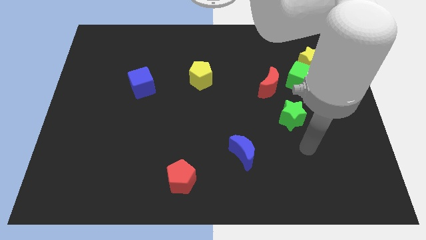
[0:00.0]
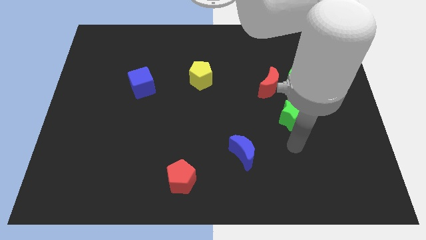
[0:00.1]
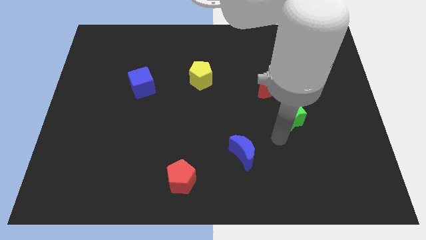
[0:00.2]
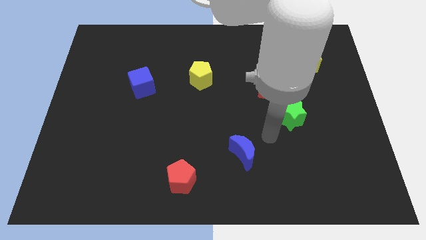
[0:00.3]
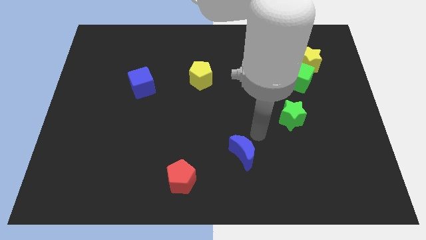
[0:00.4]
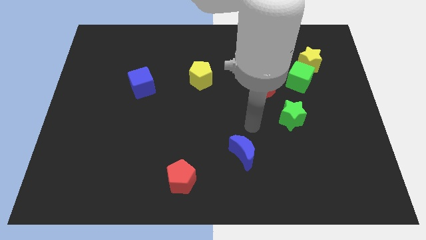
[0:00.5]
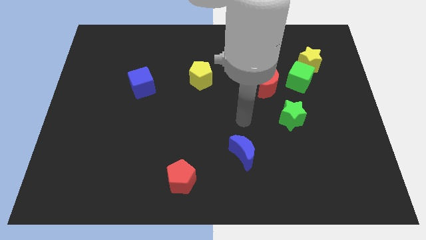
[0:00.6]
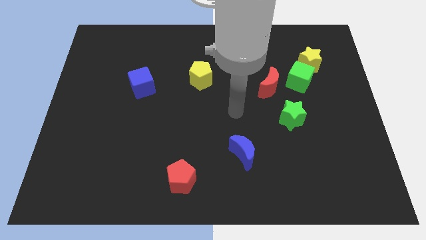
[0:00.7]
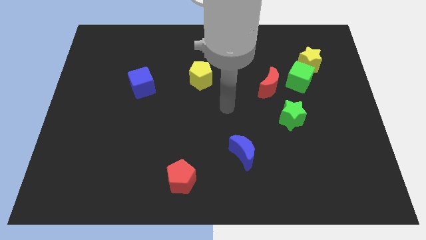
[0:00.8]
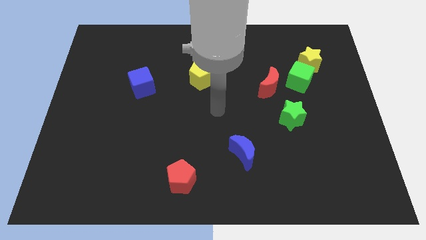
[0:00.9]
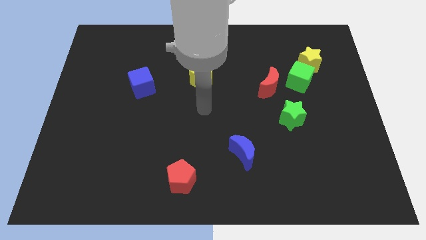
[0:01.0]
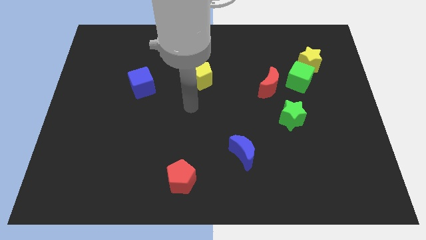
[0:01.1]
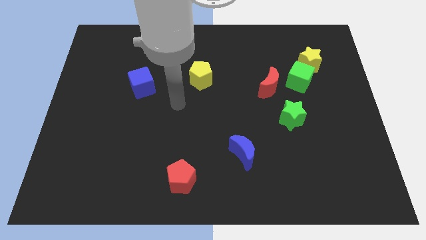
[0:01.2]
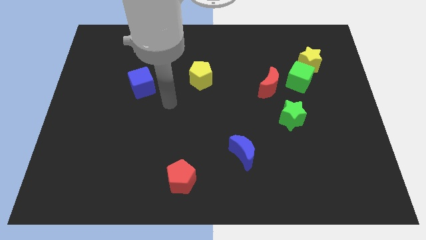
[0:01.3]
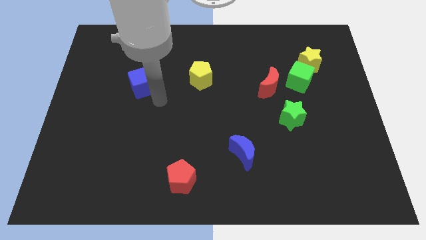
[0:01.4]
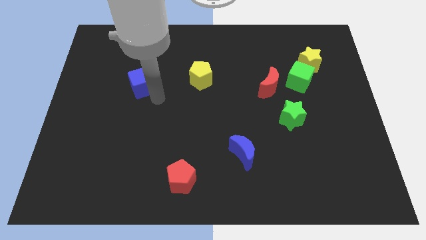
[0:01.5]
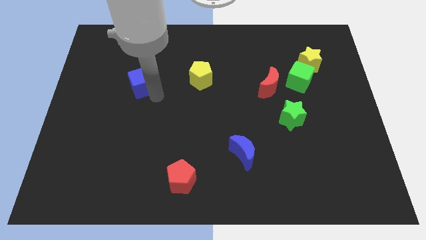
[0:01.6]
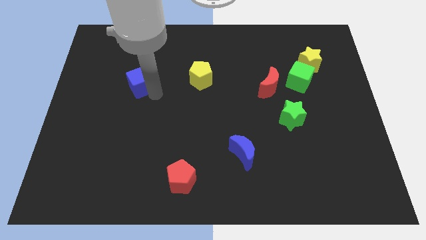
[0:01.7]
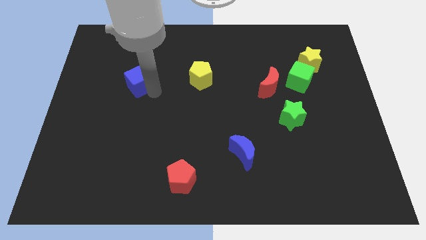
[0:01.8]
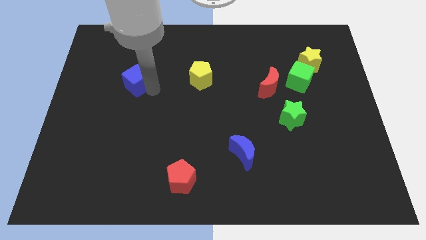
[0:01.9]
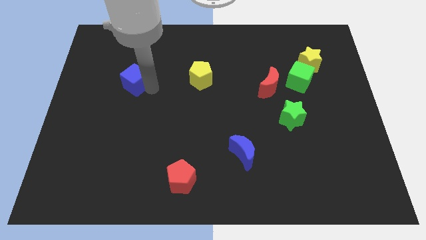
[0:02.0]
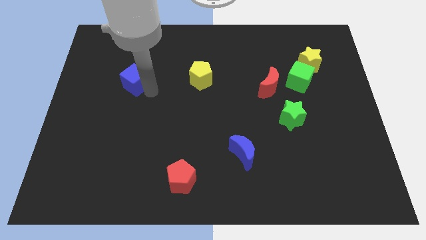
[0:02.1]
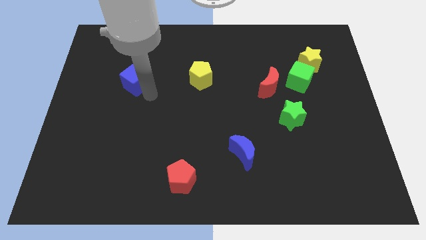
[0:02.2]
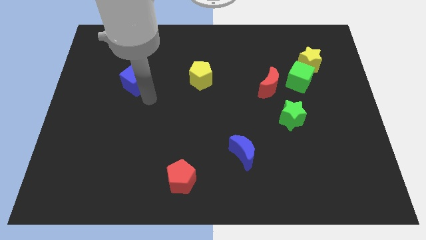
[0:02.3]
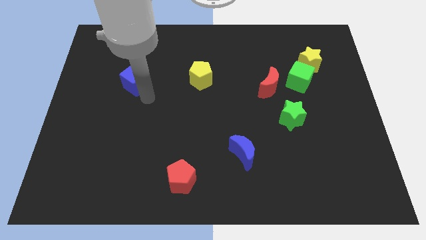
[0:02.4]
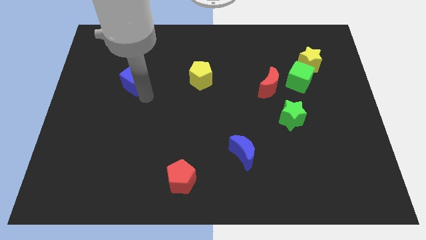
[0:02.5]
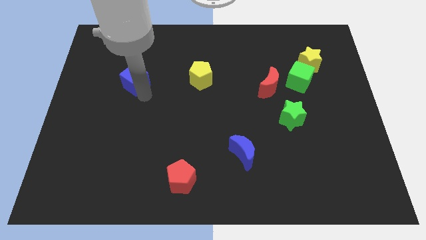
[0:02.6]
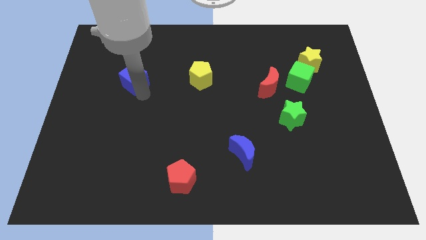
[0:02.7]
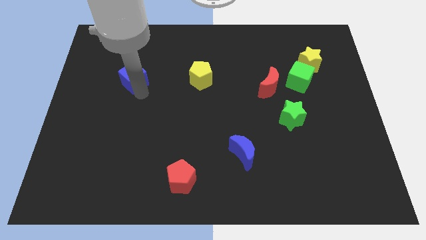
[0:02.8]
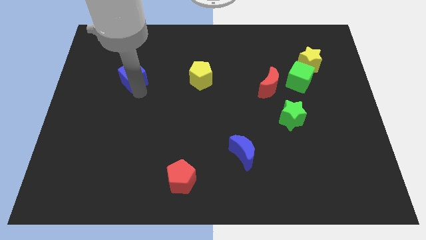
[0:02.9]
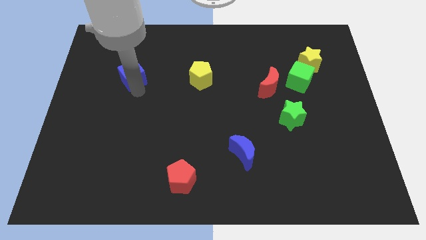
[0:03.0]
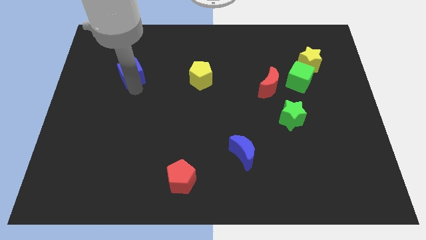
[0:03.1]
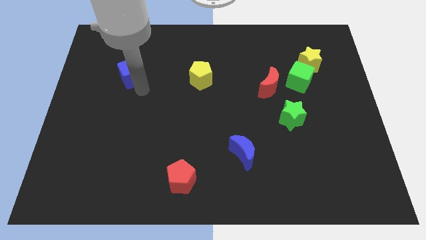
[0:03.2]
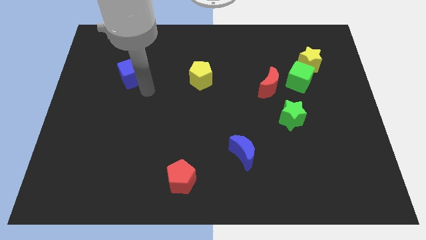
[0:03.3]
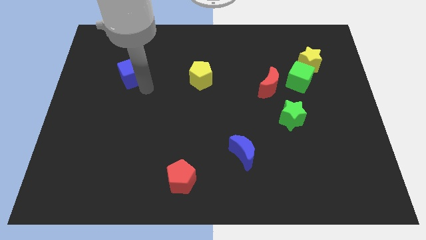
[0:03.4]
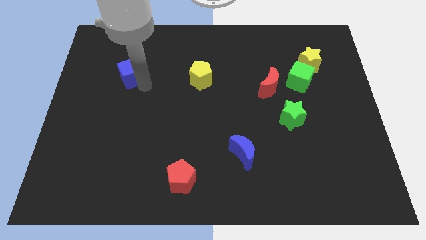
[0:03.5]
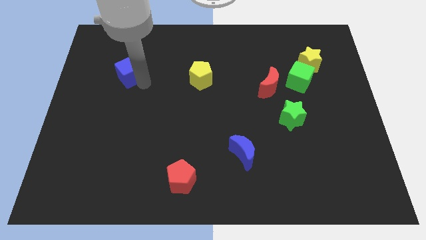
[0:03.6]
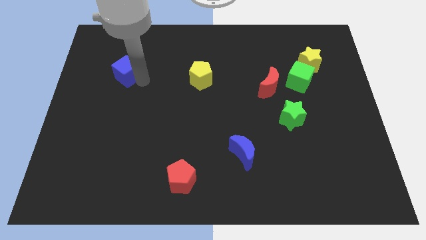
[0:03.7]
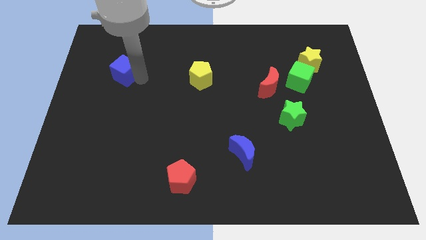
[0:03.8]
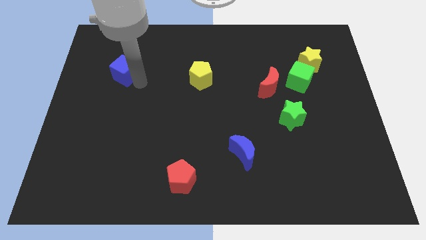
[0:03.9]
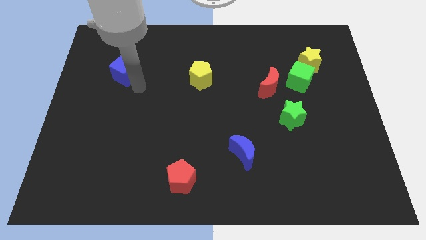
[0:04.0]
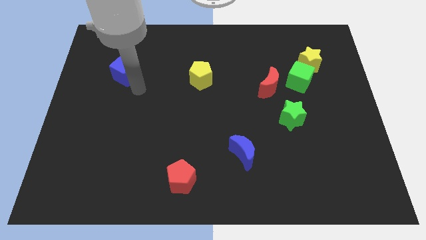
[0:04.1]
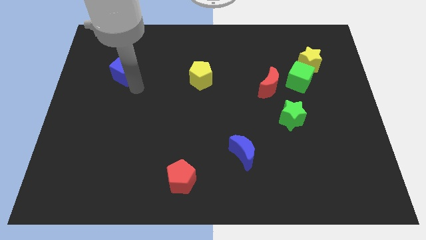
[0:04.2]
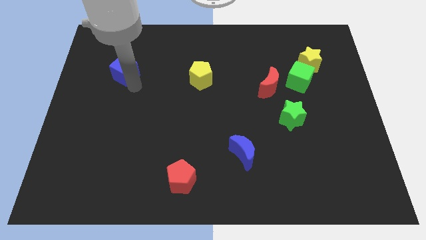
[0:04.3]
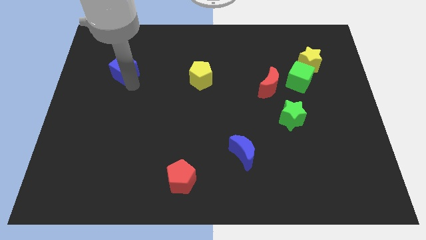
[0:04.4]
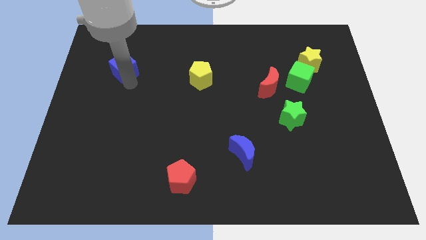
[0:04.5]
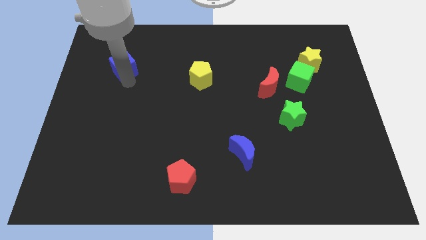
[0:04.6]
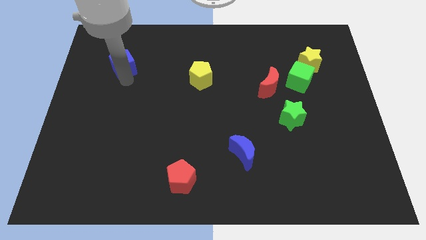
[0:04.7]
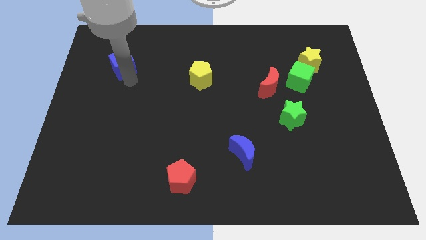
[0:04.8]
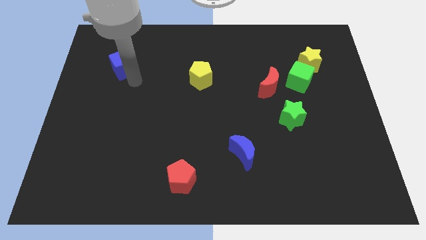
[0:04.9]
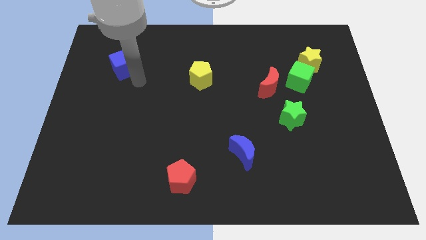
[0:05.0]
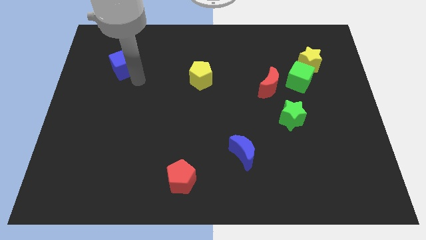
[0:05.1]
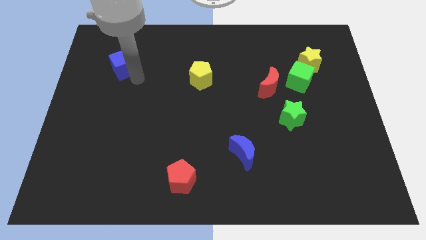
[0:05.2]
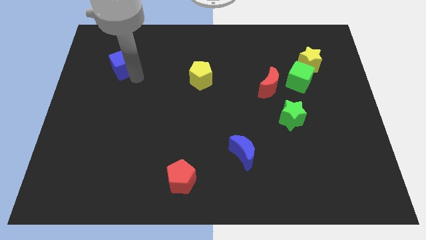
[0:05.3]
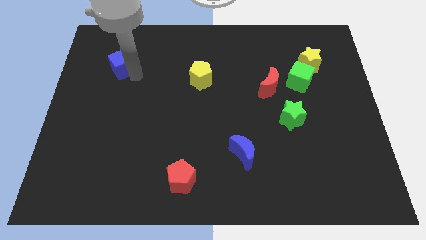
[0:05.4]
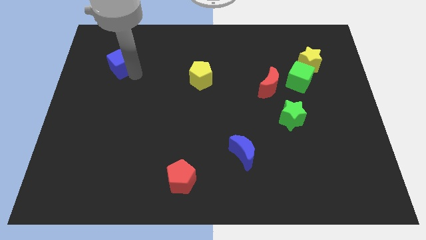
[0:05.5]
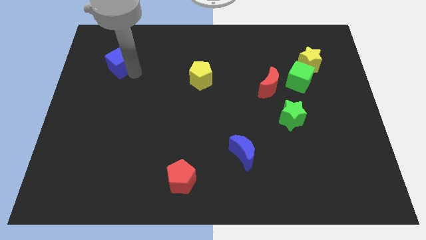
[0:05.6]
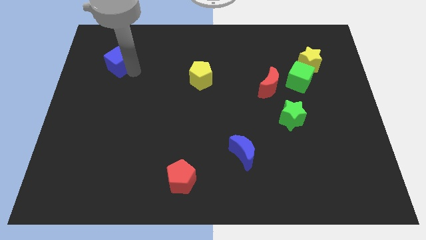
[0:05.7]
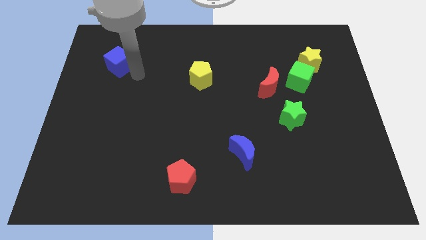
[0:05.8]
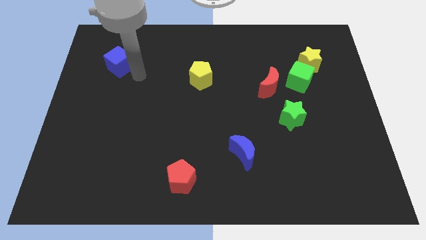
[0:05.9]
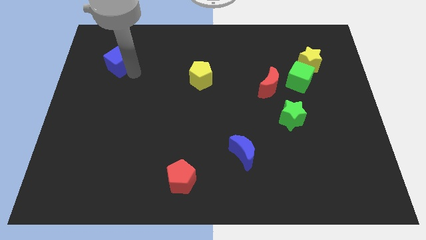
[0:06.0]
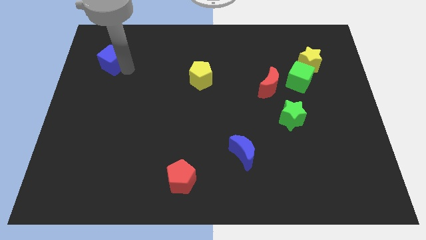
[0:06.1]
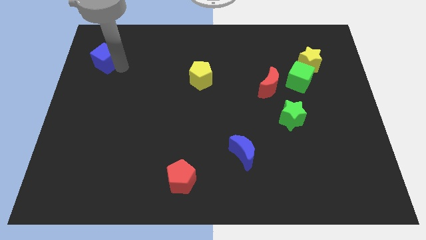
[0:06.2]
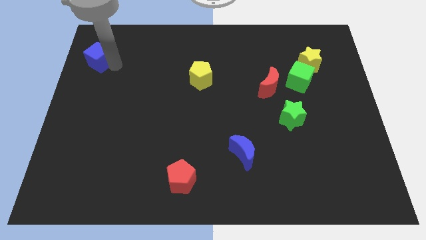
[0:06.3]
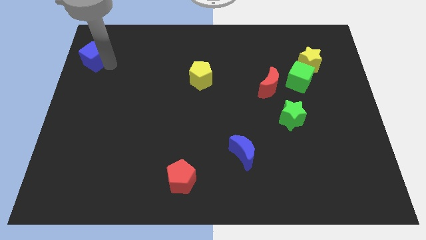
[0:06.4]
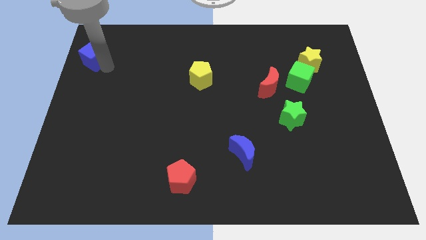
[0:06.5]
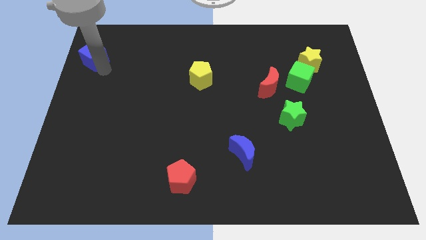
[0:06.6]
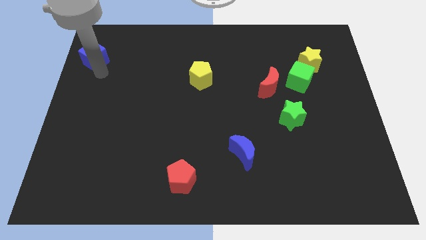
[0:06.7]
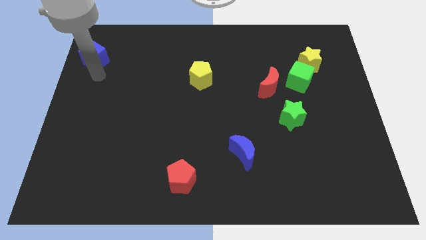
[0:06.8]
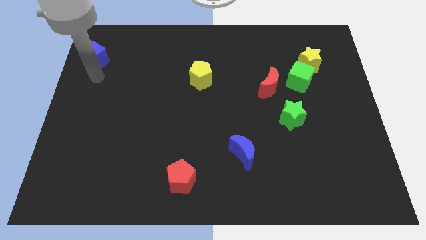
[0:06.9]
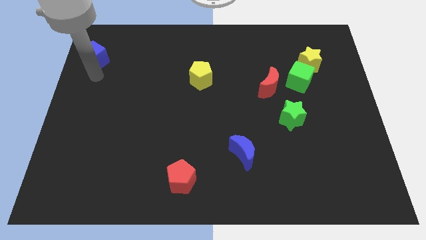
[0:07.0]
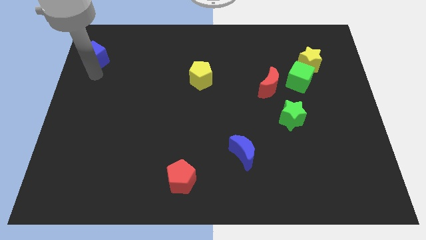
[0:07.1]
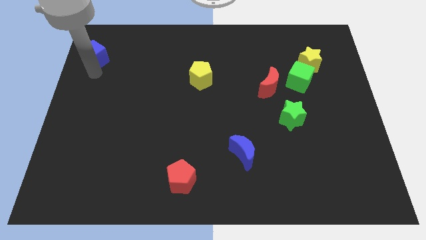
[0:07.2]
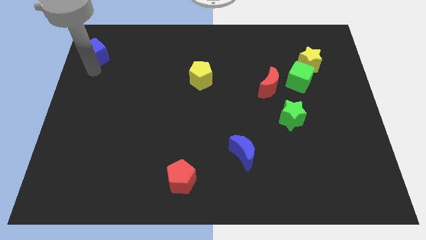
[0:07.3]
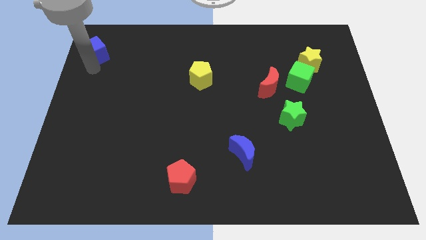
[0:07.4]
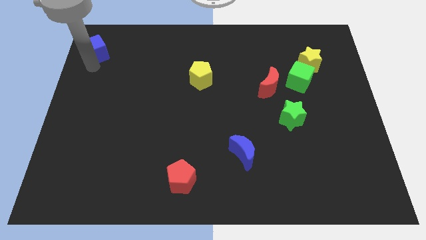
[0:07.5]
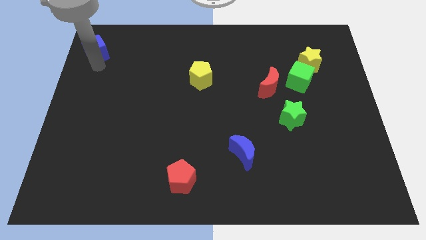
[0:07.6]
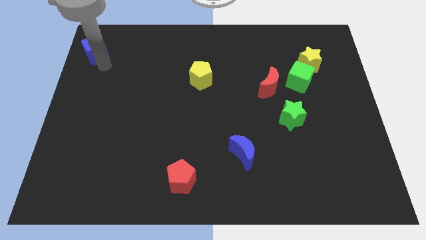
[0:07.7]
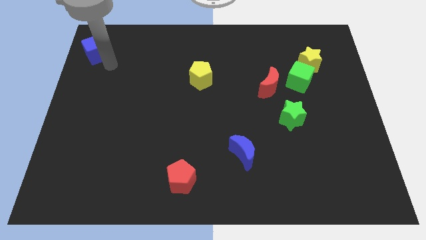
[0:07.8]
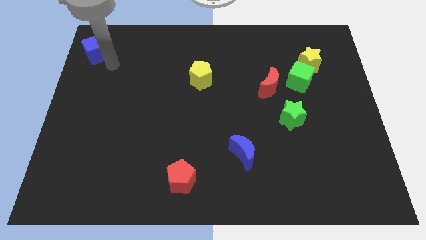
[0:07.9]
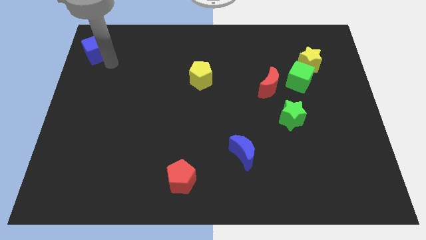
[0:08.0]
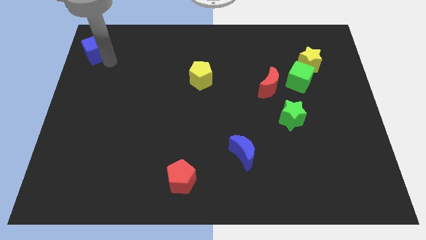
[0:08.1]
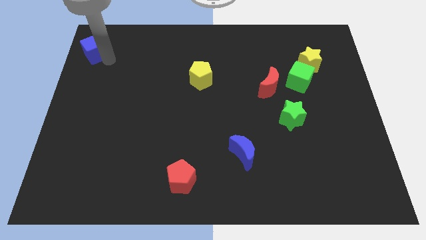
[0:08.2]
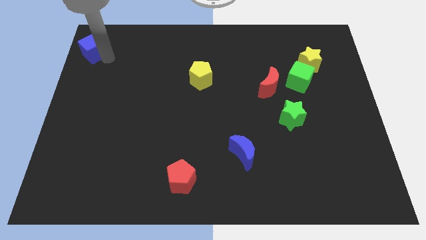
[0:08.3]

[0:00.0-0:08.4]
push the blue cube to the upper left corner
